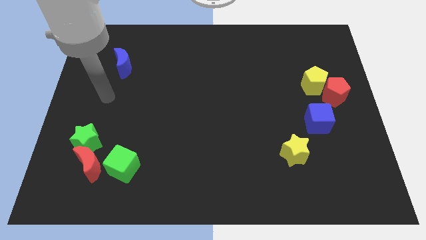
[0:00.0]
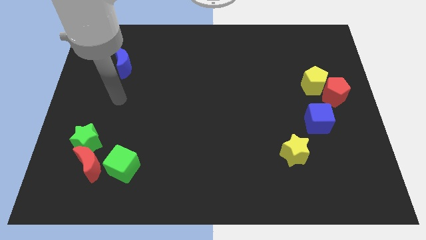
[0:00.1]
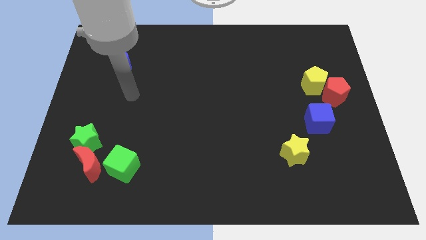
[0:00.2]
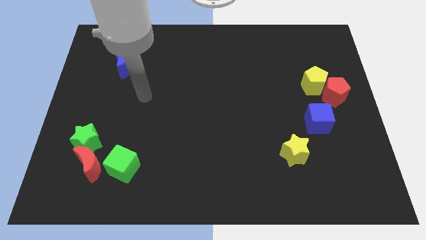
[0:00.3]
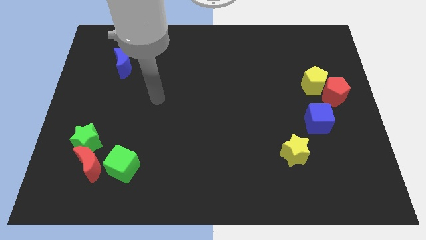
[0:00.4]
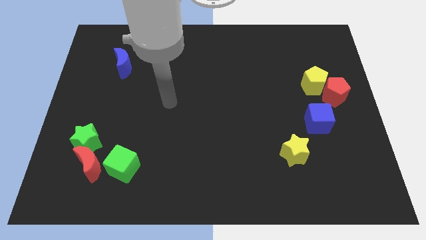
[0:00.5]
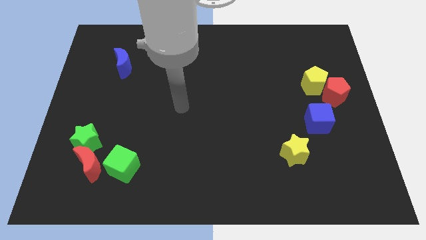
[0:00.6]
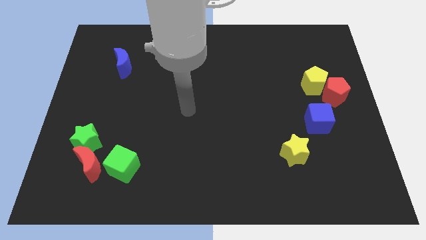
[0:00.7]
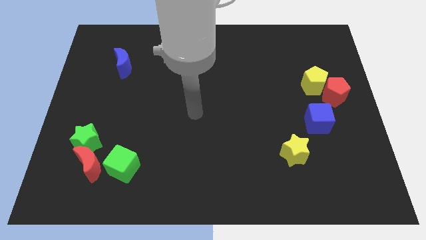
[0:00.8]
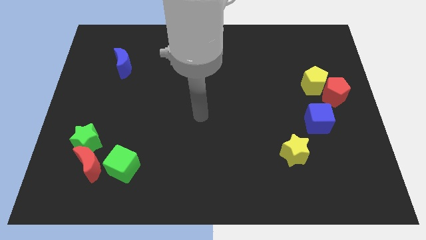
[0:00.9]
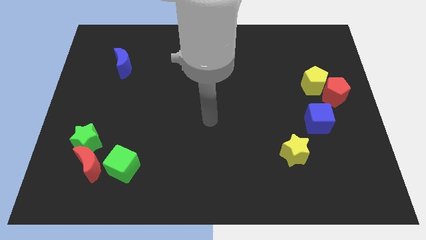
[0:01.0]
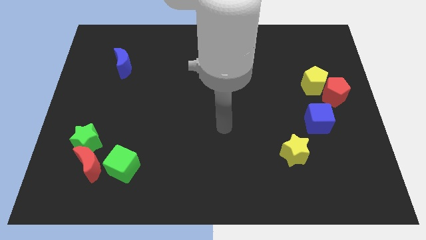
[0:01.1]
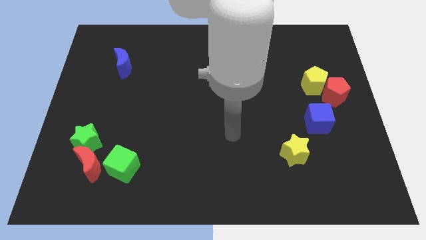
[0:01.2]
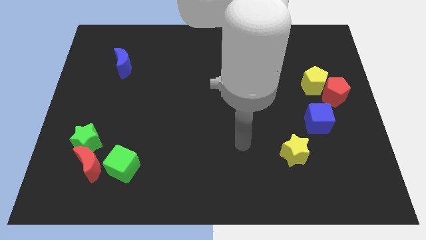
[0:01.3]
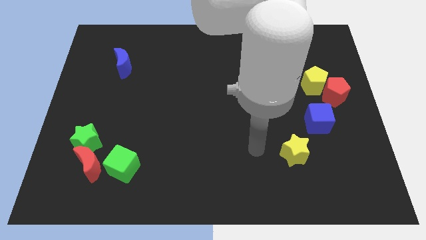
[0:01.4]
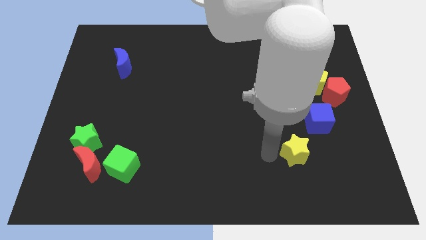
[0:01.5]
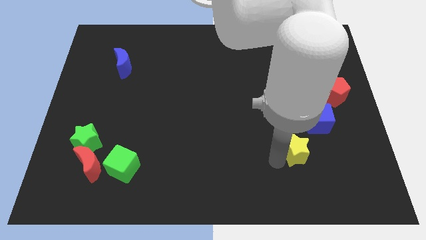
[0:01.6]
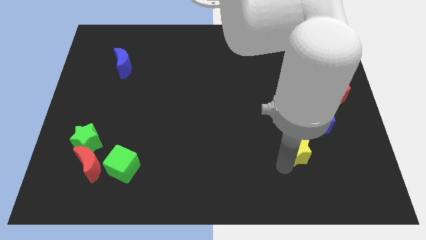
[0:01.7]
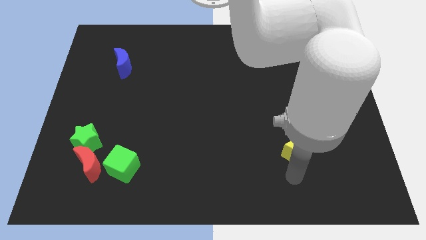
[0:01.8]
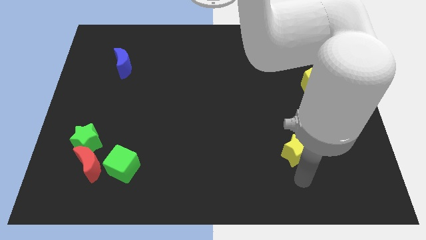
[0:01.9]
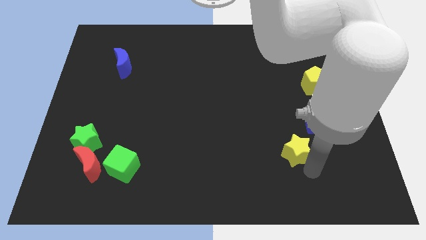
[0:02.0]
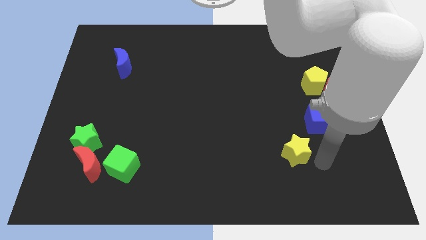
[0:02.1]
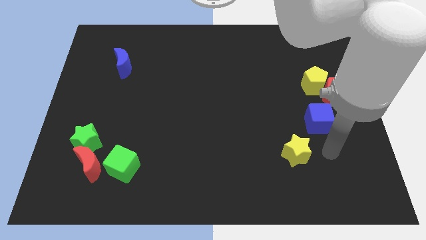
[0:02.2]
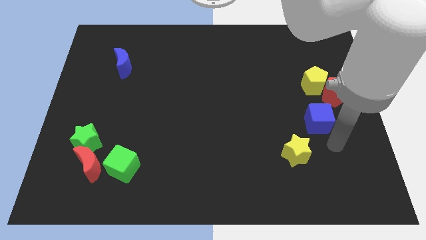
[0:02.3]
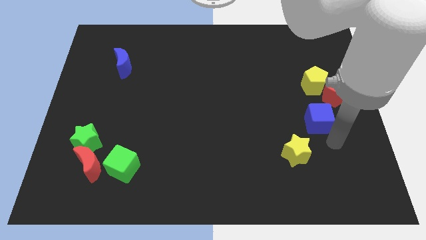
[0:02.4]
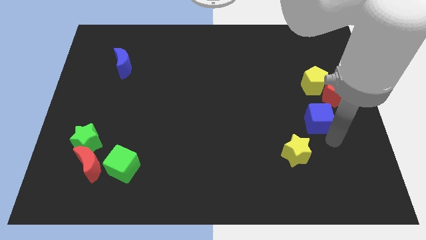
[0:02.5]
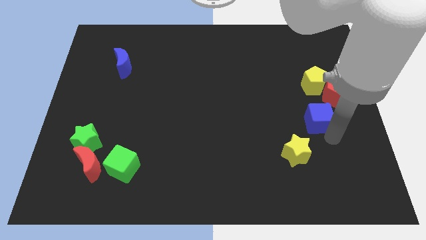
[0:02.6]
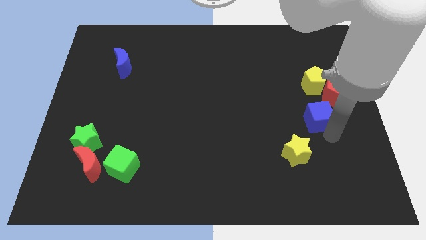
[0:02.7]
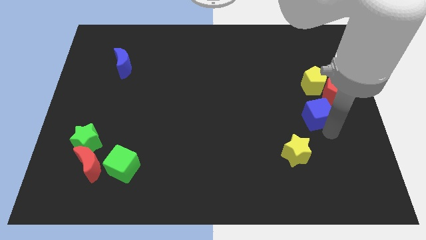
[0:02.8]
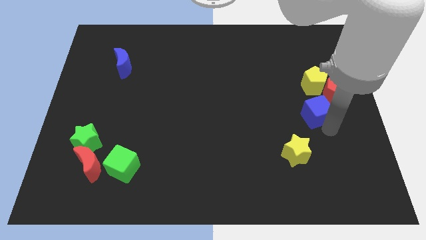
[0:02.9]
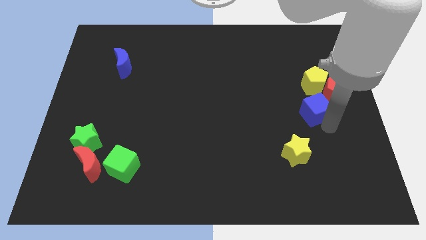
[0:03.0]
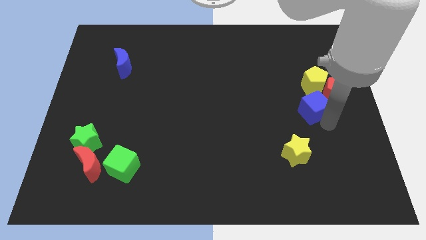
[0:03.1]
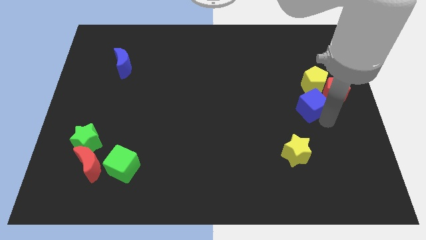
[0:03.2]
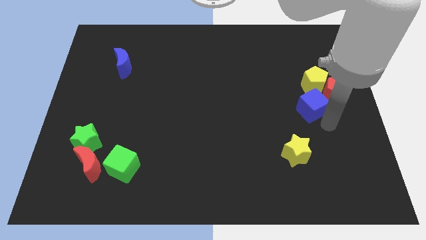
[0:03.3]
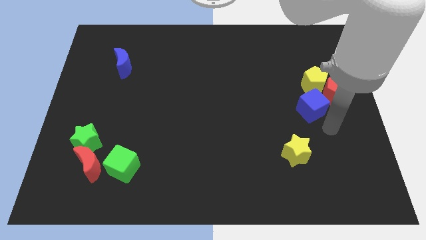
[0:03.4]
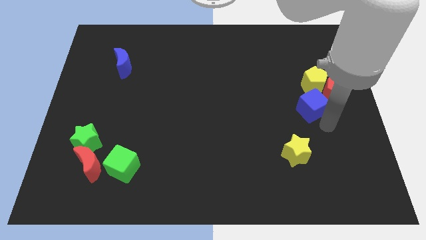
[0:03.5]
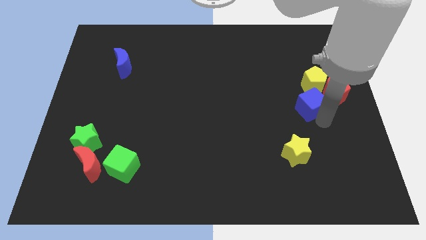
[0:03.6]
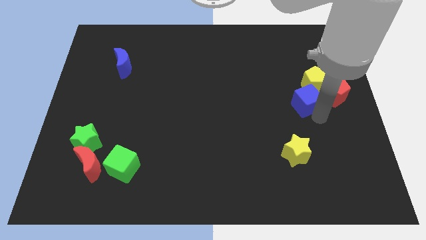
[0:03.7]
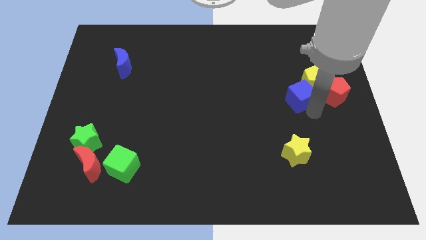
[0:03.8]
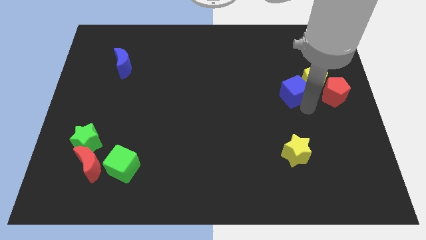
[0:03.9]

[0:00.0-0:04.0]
move the blue cube upwards a bit

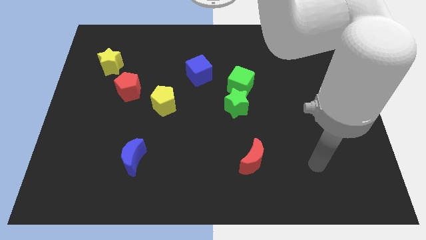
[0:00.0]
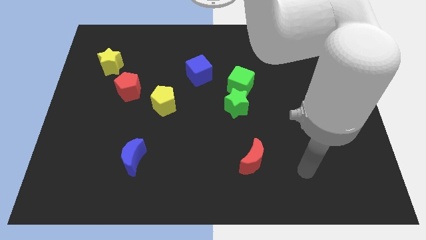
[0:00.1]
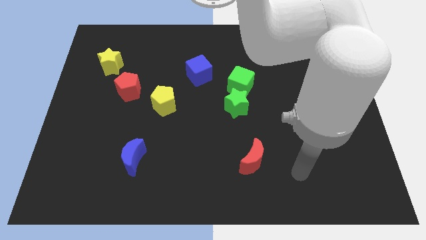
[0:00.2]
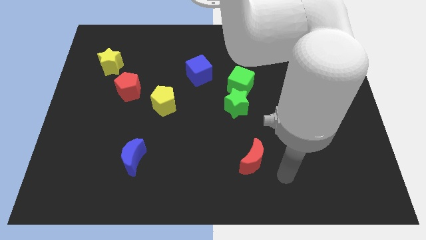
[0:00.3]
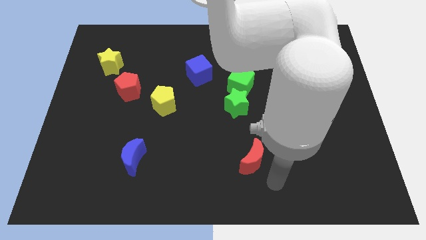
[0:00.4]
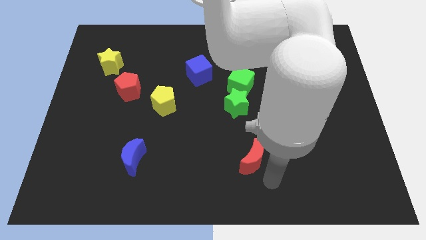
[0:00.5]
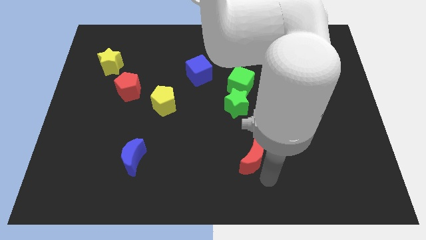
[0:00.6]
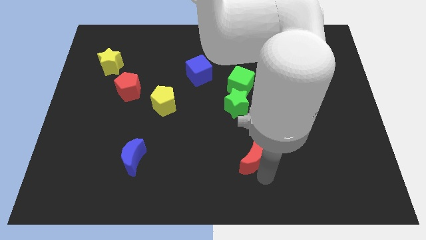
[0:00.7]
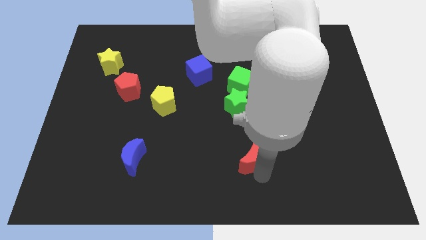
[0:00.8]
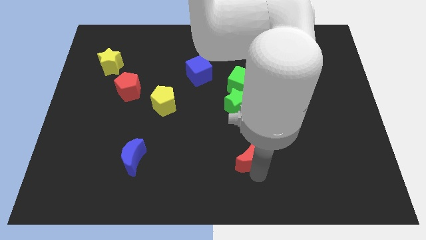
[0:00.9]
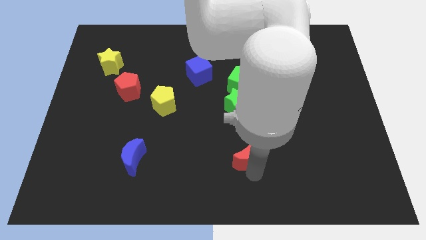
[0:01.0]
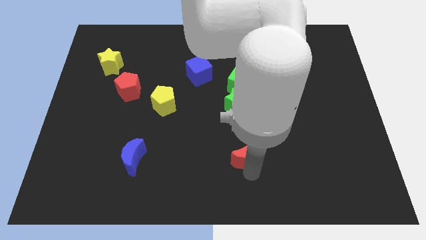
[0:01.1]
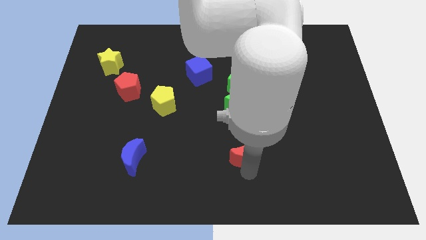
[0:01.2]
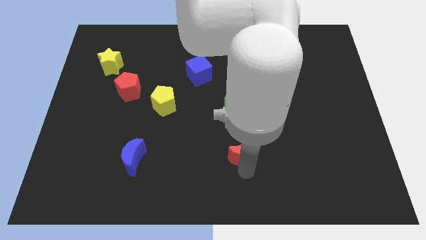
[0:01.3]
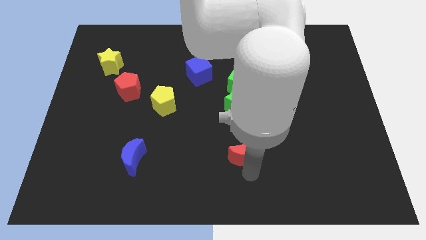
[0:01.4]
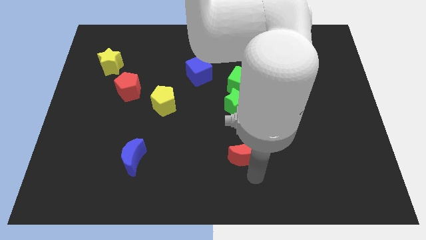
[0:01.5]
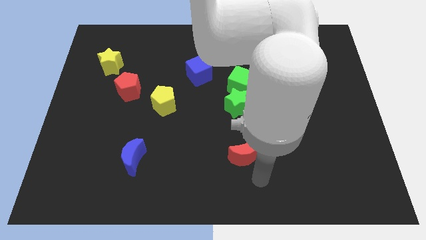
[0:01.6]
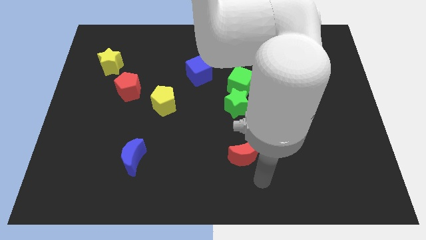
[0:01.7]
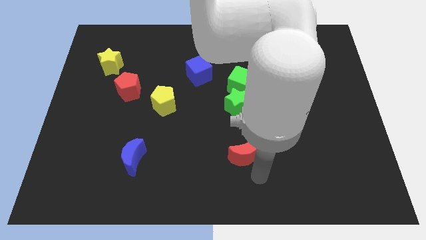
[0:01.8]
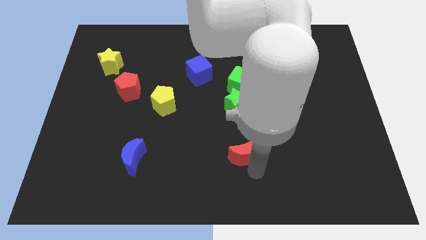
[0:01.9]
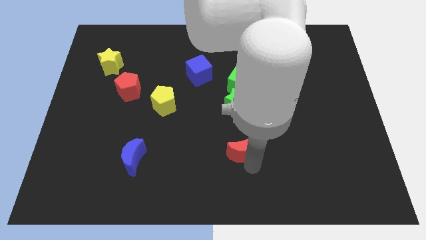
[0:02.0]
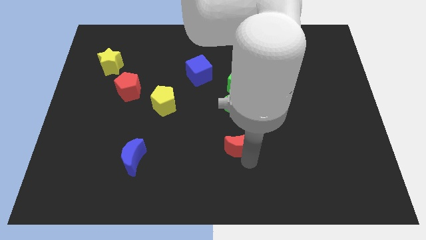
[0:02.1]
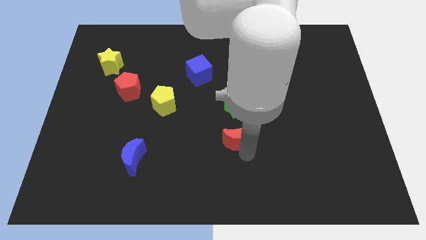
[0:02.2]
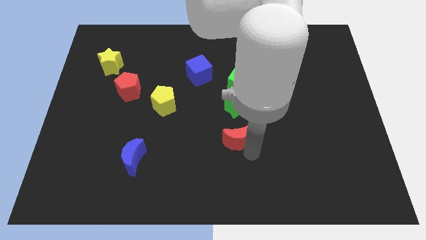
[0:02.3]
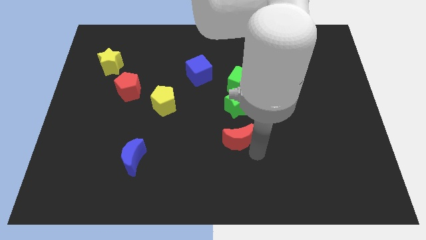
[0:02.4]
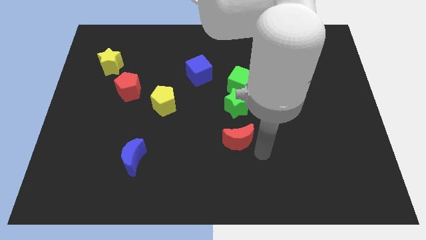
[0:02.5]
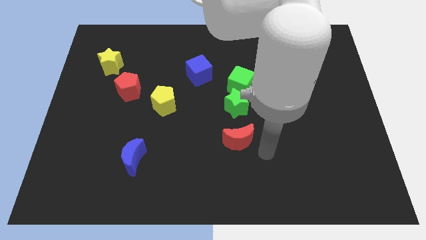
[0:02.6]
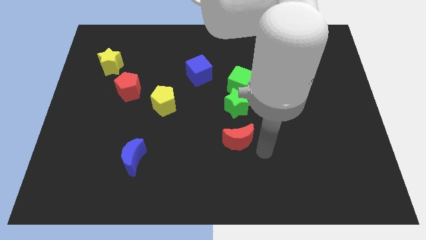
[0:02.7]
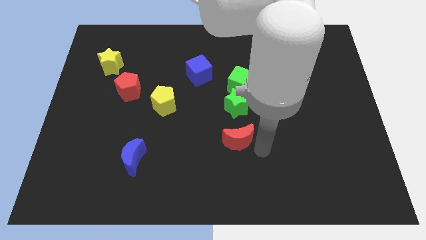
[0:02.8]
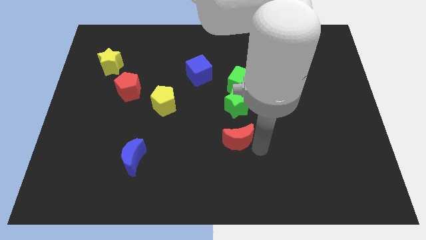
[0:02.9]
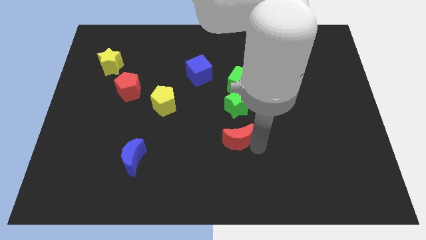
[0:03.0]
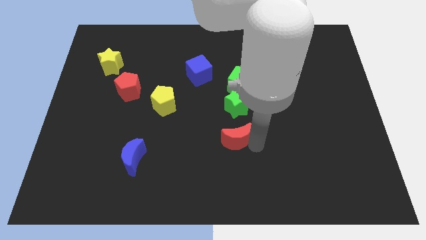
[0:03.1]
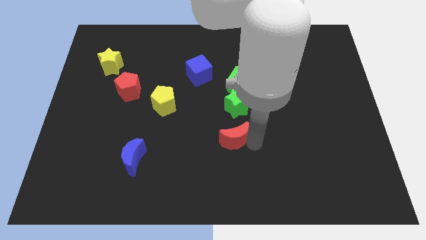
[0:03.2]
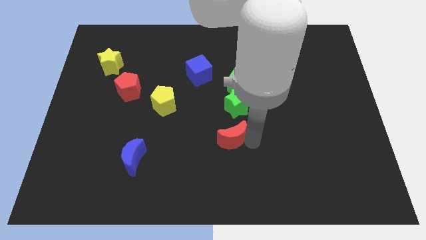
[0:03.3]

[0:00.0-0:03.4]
slightly push the red moon diagonally upwards and to the left
